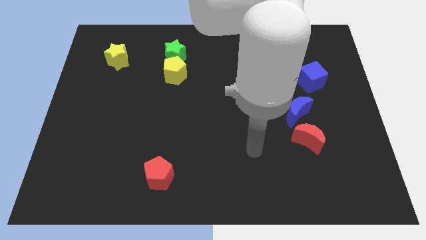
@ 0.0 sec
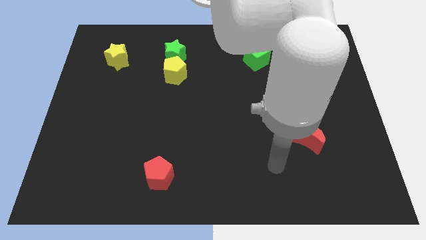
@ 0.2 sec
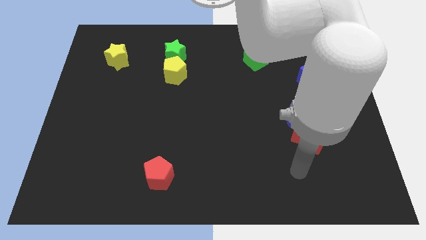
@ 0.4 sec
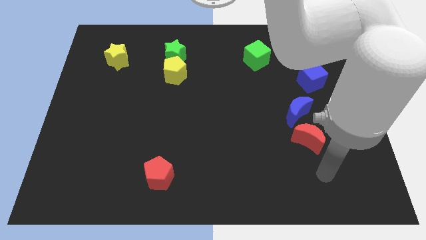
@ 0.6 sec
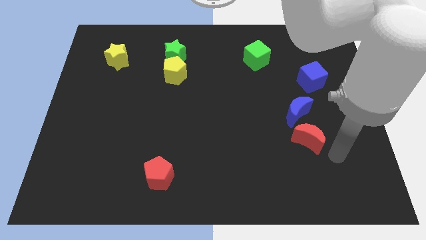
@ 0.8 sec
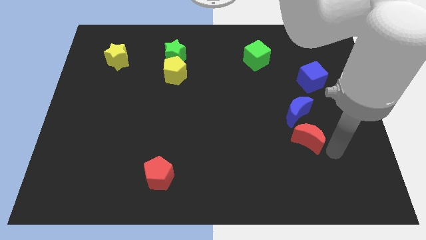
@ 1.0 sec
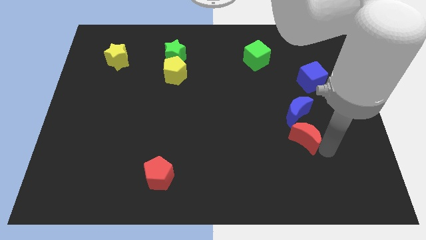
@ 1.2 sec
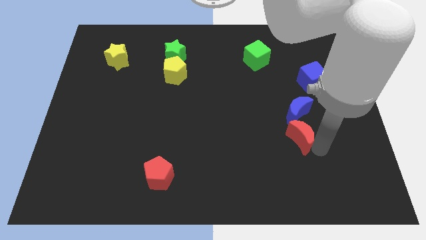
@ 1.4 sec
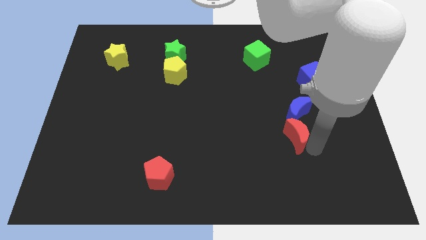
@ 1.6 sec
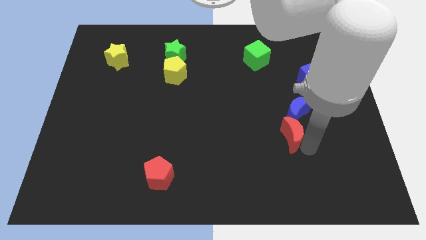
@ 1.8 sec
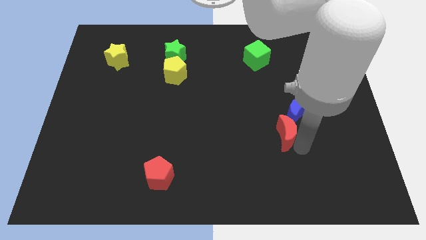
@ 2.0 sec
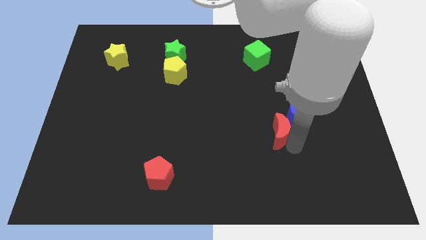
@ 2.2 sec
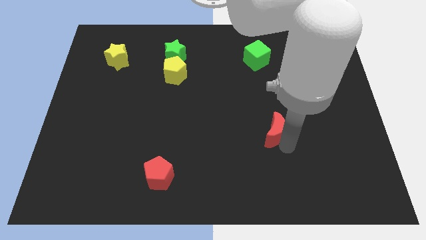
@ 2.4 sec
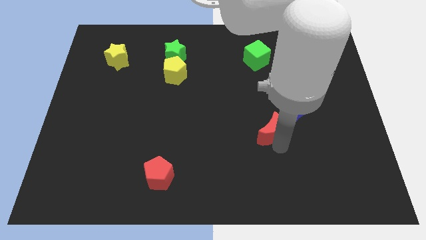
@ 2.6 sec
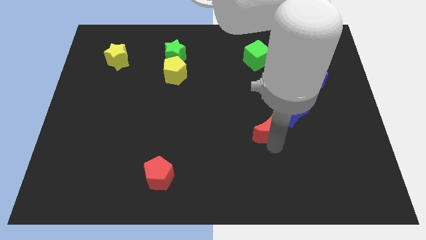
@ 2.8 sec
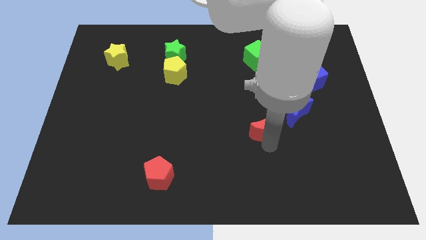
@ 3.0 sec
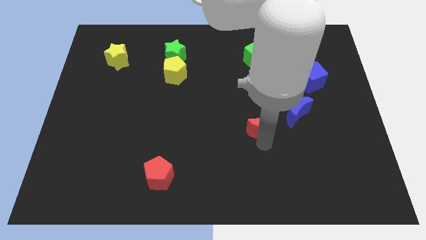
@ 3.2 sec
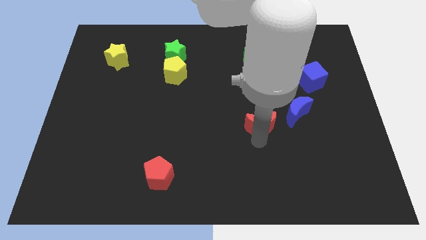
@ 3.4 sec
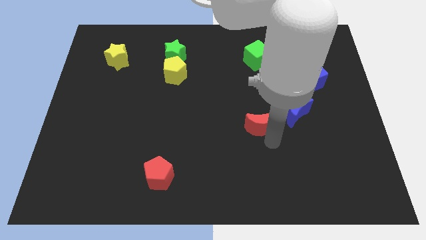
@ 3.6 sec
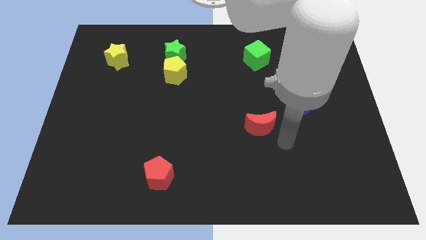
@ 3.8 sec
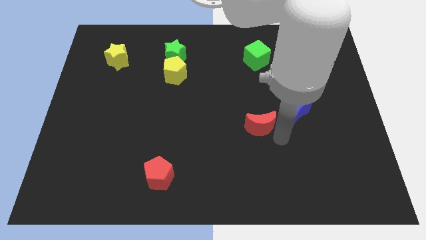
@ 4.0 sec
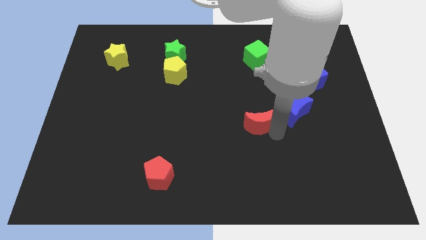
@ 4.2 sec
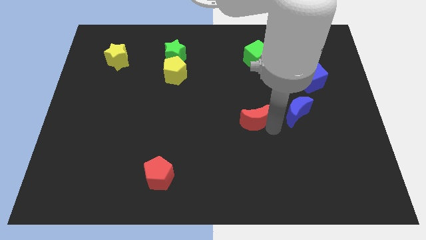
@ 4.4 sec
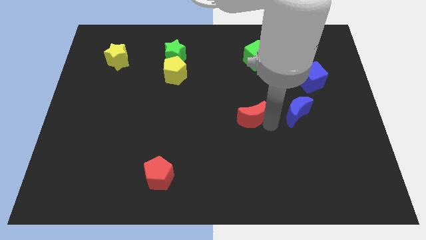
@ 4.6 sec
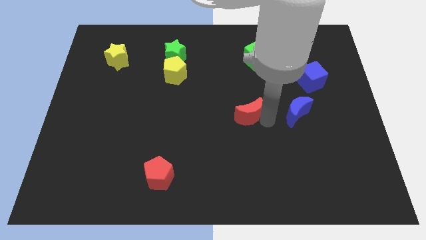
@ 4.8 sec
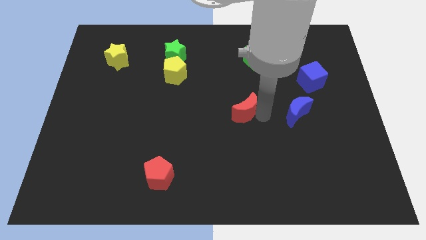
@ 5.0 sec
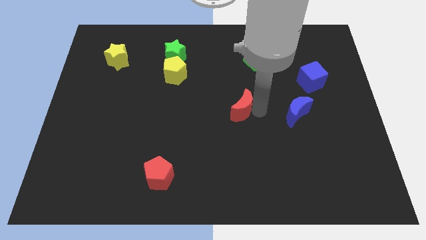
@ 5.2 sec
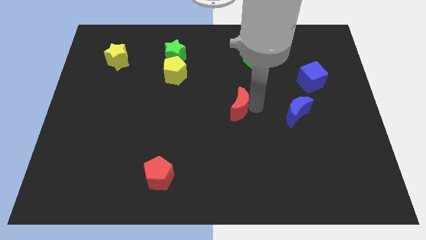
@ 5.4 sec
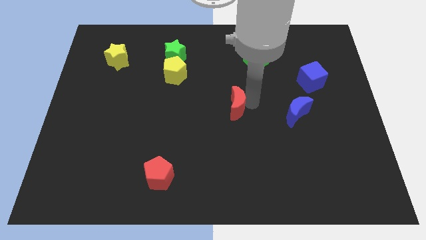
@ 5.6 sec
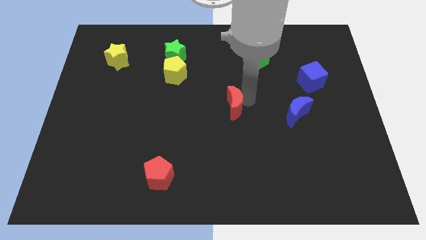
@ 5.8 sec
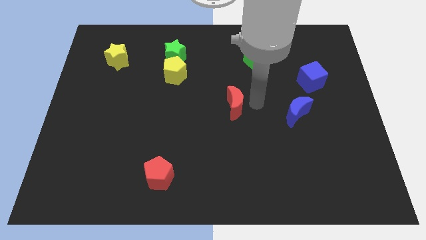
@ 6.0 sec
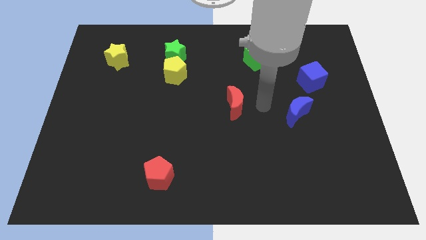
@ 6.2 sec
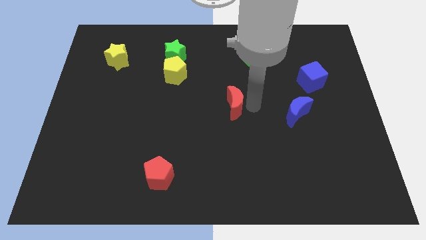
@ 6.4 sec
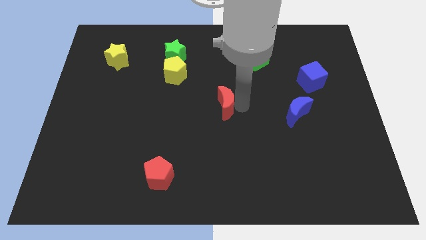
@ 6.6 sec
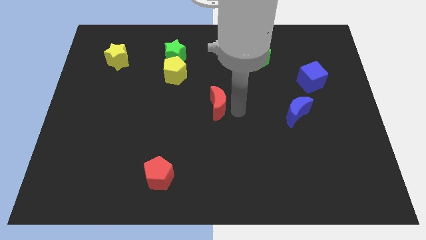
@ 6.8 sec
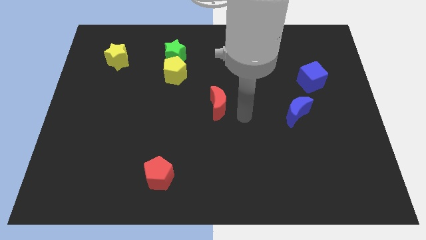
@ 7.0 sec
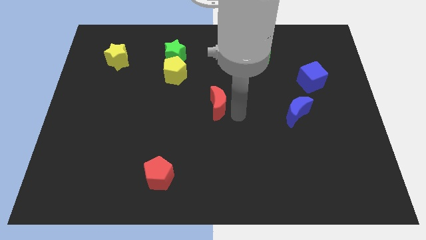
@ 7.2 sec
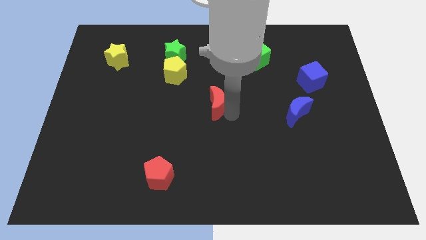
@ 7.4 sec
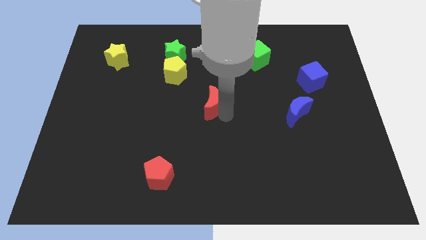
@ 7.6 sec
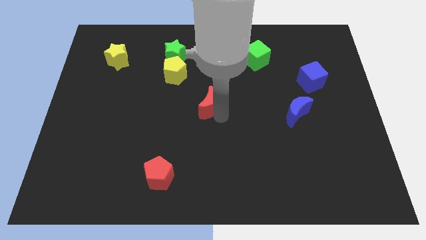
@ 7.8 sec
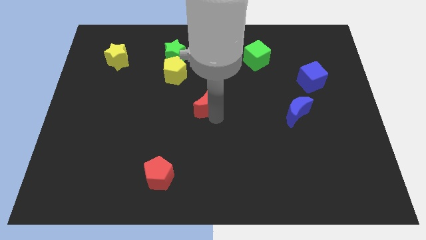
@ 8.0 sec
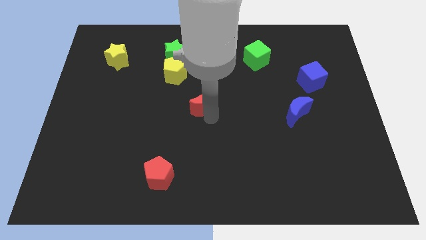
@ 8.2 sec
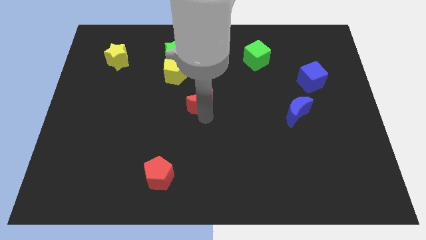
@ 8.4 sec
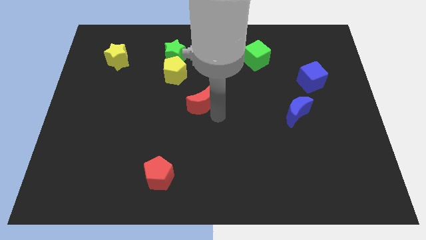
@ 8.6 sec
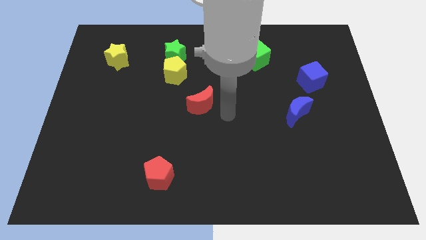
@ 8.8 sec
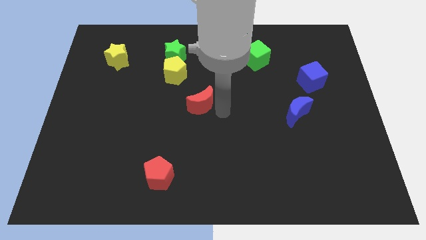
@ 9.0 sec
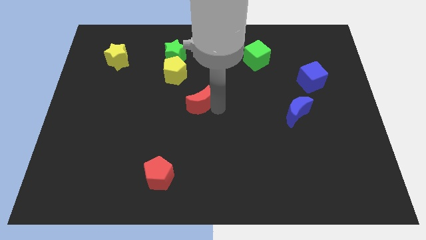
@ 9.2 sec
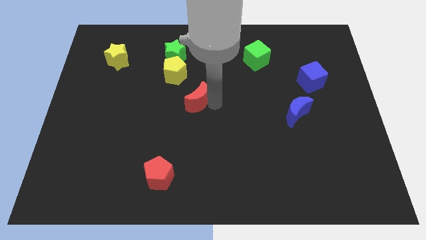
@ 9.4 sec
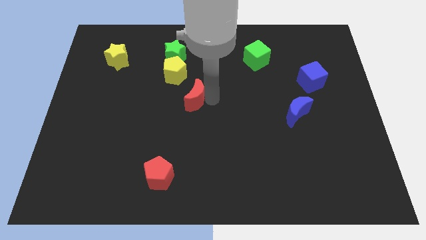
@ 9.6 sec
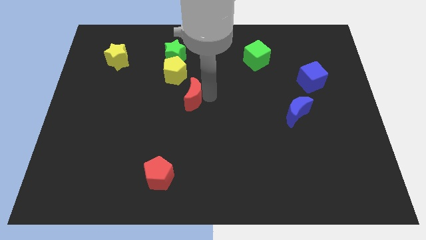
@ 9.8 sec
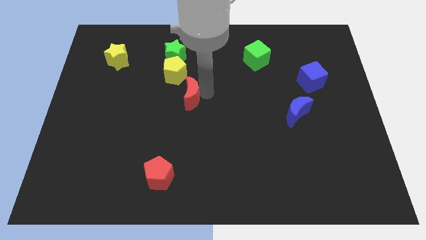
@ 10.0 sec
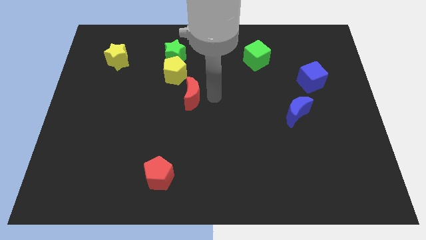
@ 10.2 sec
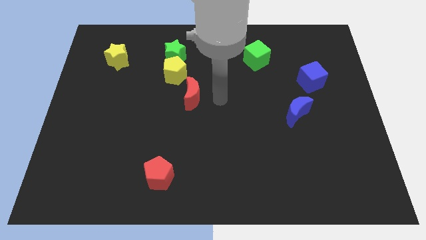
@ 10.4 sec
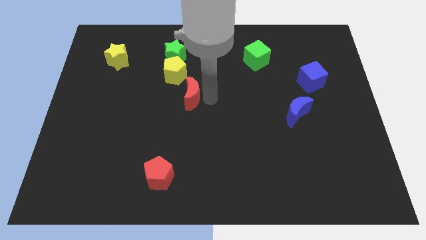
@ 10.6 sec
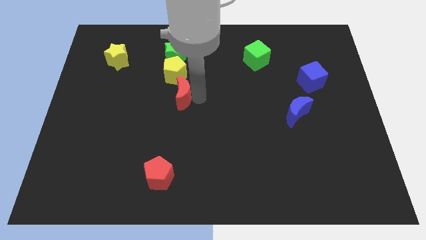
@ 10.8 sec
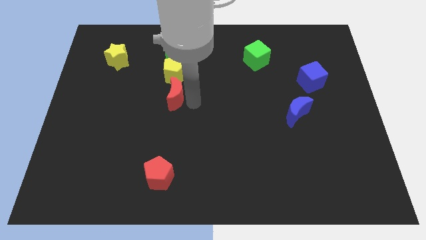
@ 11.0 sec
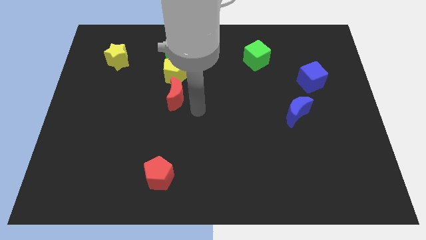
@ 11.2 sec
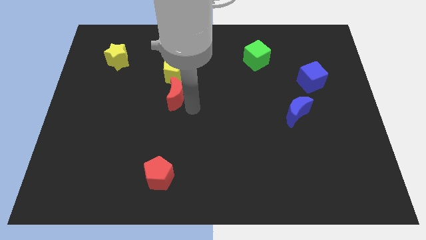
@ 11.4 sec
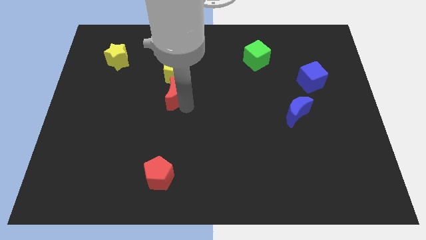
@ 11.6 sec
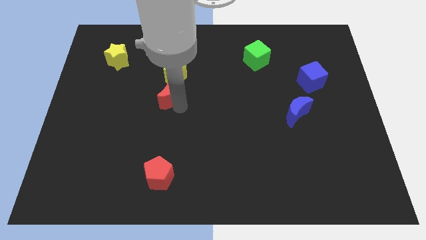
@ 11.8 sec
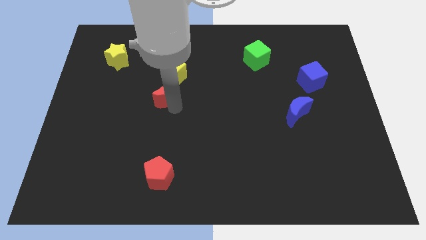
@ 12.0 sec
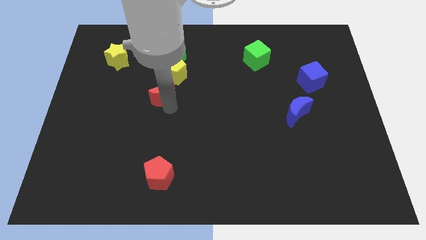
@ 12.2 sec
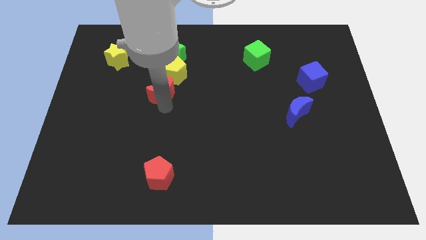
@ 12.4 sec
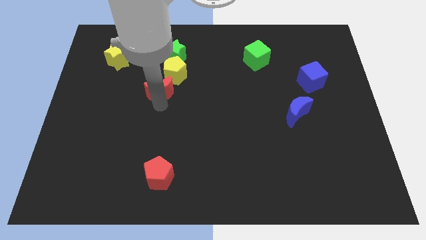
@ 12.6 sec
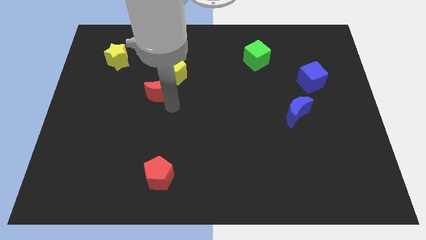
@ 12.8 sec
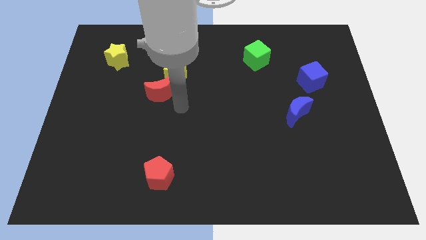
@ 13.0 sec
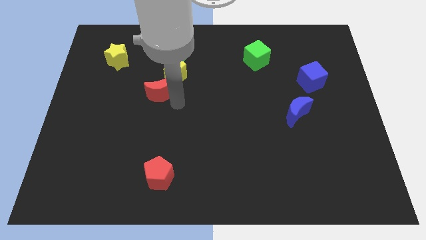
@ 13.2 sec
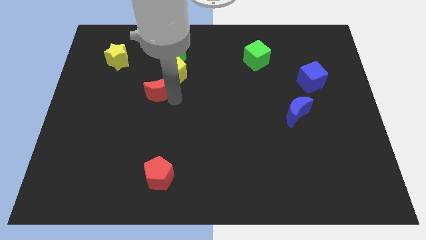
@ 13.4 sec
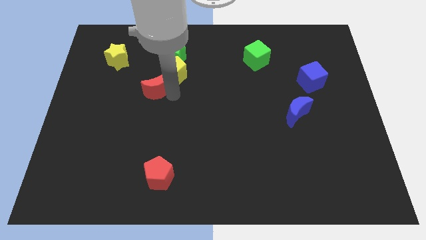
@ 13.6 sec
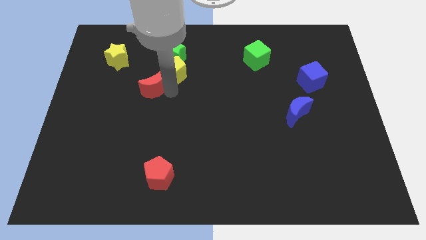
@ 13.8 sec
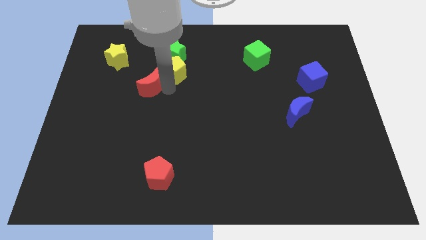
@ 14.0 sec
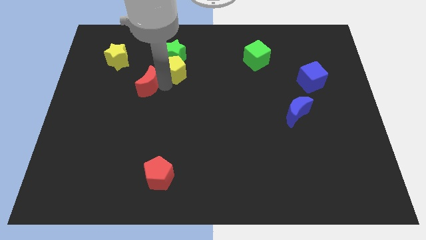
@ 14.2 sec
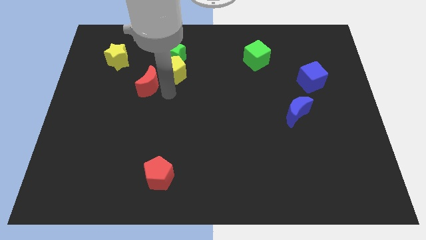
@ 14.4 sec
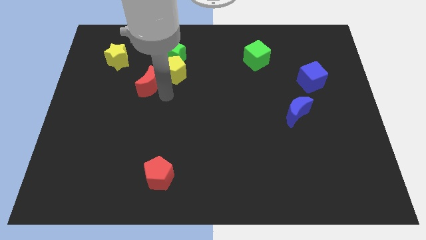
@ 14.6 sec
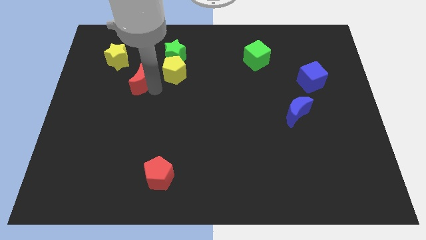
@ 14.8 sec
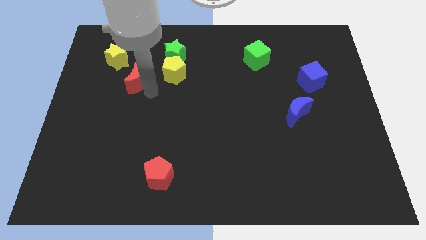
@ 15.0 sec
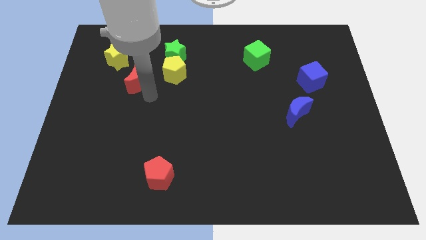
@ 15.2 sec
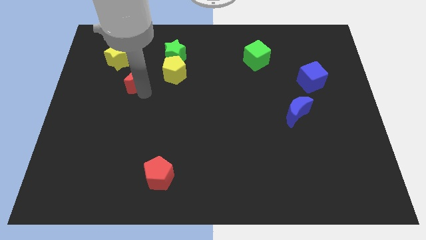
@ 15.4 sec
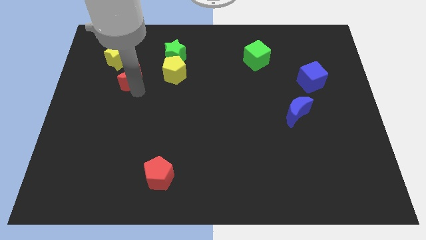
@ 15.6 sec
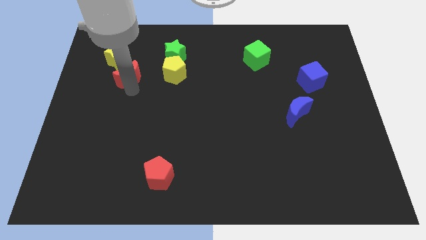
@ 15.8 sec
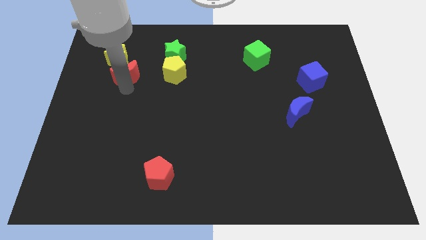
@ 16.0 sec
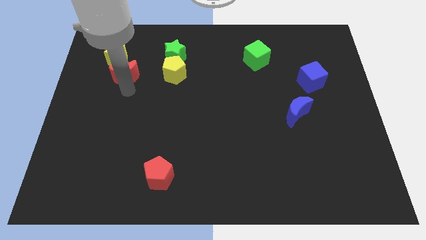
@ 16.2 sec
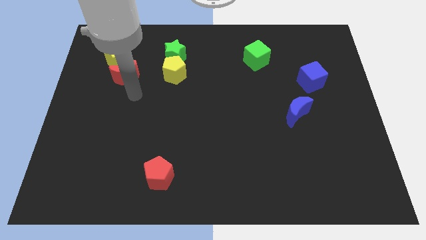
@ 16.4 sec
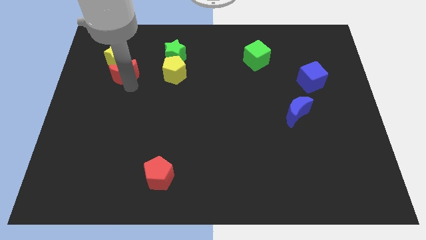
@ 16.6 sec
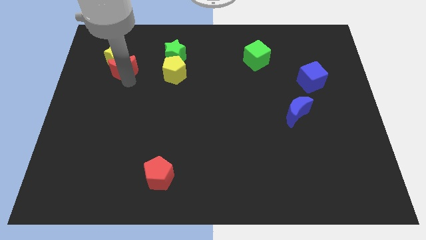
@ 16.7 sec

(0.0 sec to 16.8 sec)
slide the red moon to the yellow star
